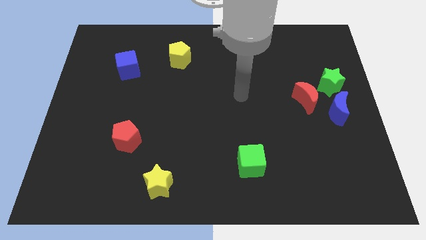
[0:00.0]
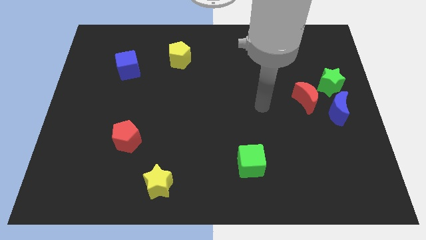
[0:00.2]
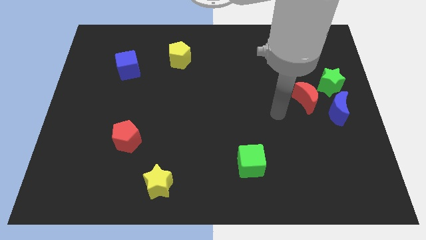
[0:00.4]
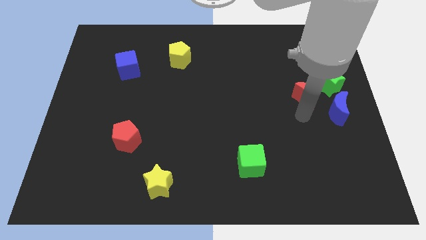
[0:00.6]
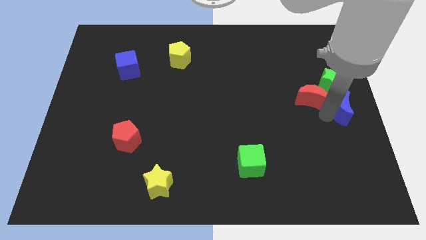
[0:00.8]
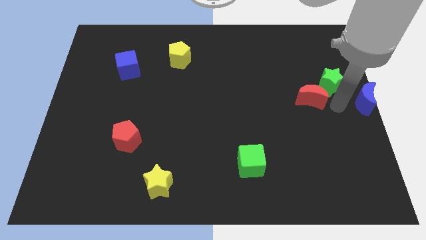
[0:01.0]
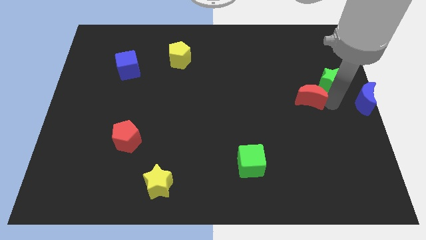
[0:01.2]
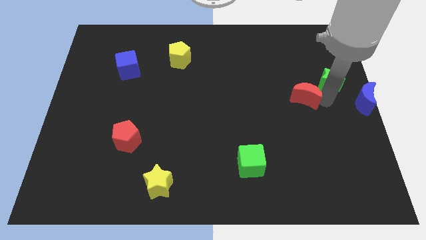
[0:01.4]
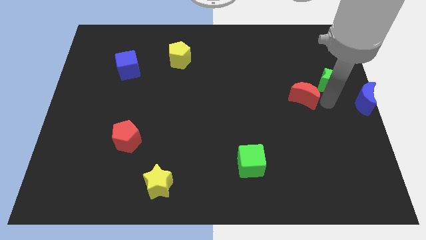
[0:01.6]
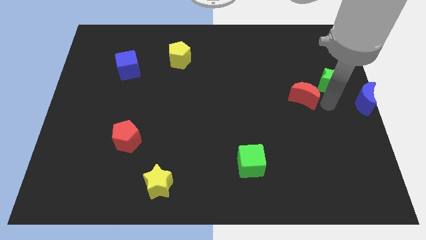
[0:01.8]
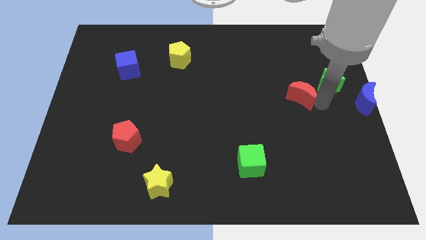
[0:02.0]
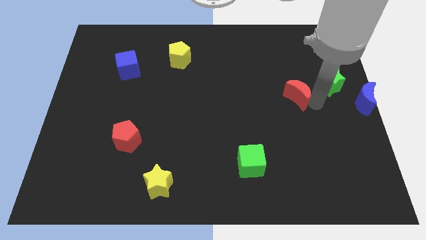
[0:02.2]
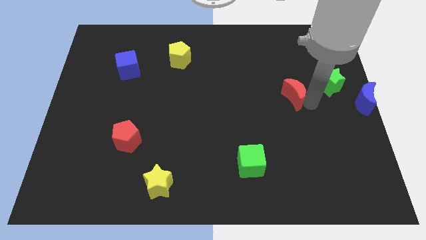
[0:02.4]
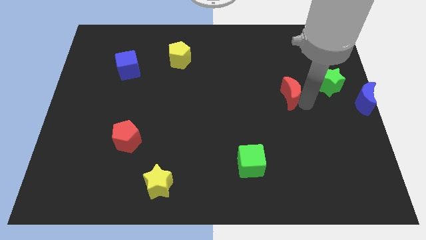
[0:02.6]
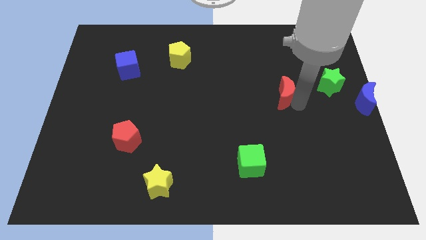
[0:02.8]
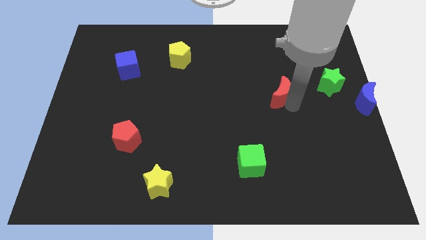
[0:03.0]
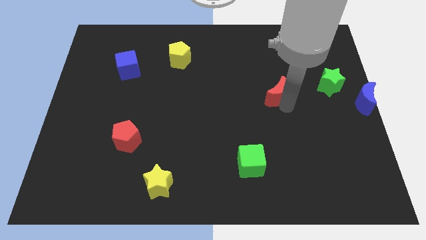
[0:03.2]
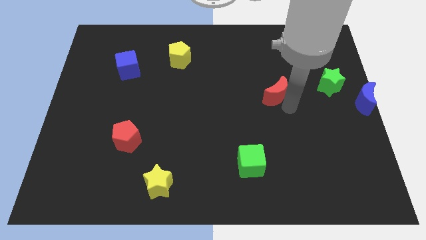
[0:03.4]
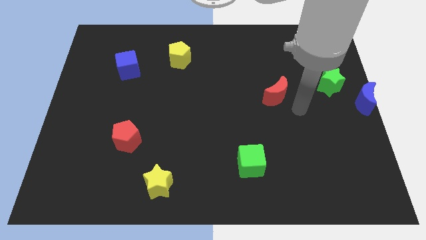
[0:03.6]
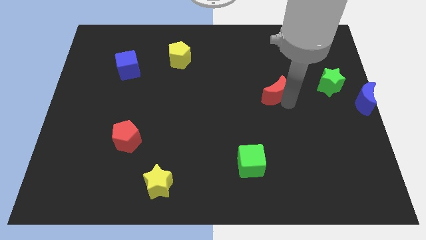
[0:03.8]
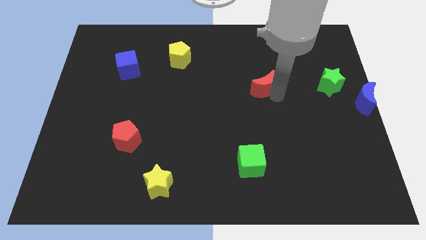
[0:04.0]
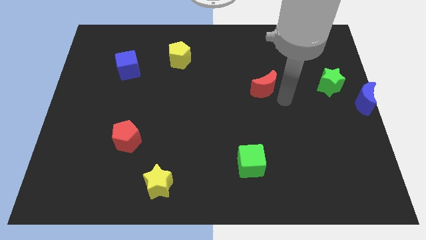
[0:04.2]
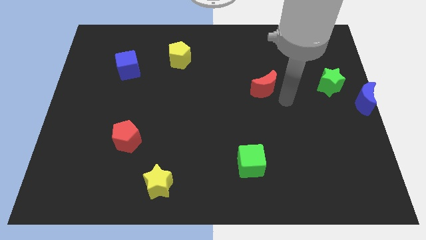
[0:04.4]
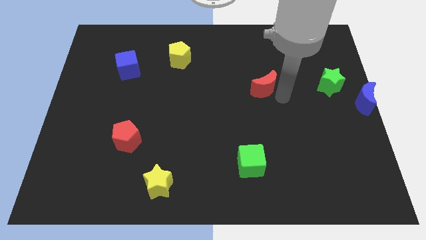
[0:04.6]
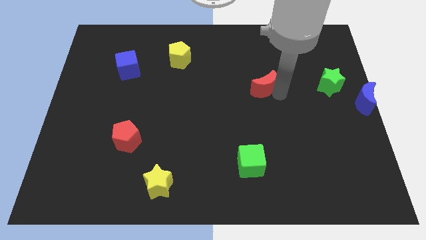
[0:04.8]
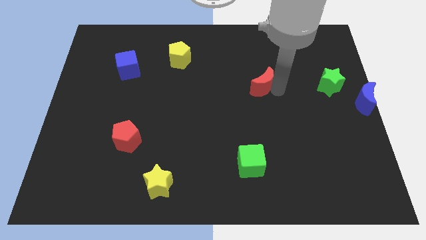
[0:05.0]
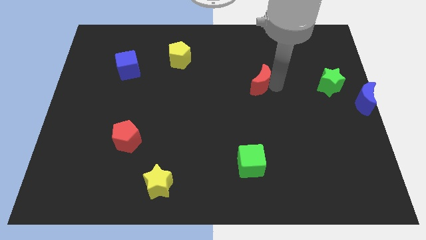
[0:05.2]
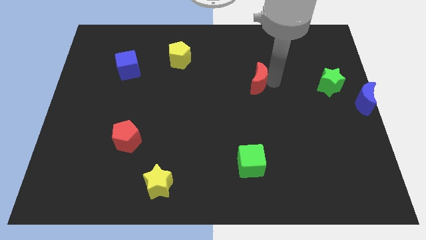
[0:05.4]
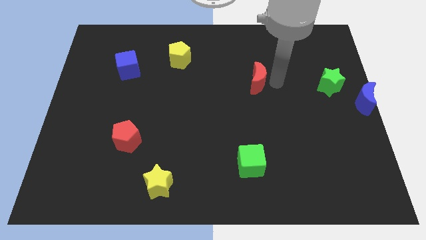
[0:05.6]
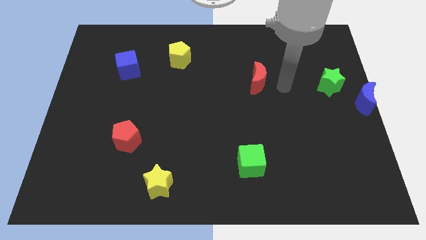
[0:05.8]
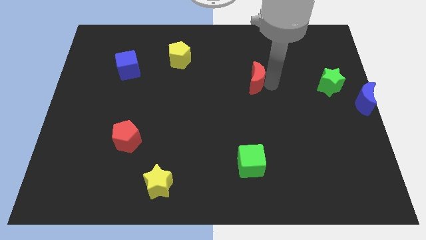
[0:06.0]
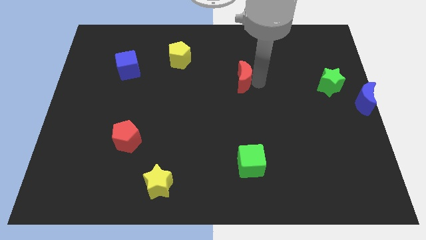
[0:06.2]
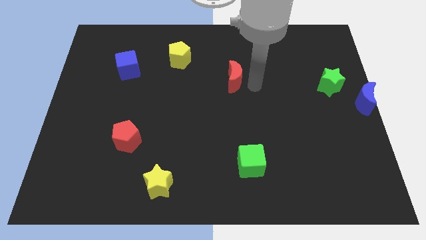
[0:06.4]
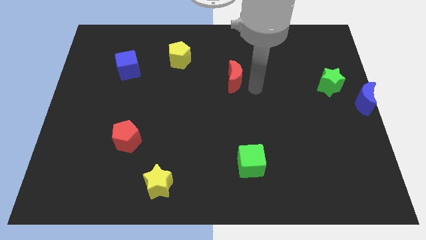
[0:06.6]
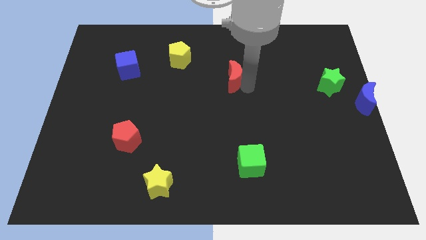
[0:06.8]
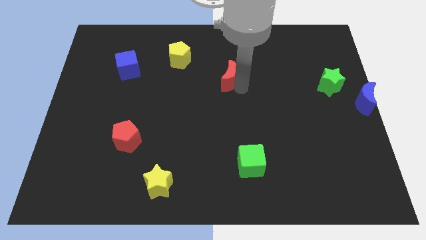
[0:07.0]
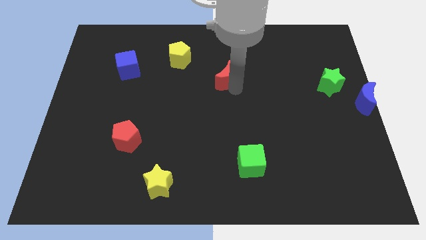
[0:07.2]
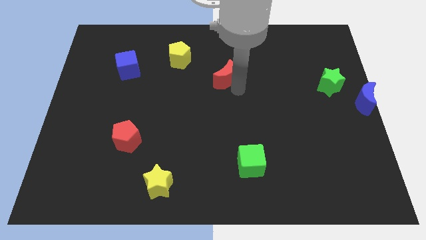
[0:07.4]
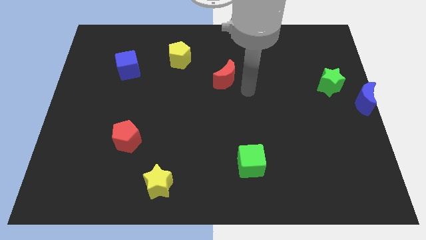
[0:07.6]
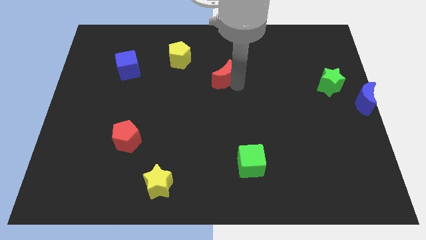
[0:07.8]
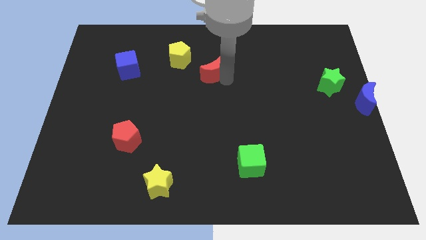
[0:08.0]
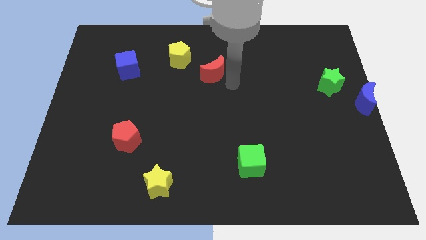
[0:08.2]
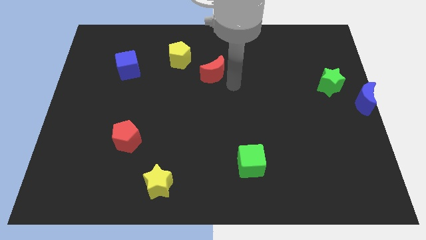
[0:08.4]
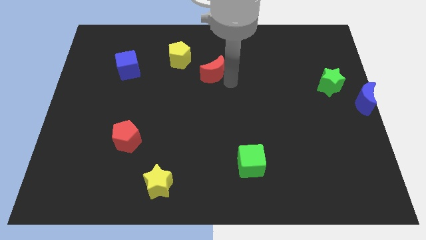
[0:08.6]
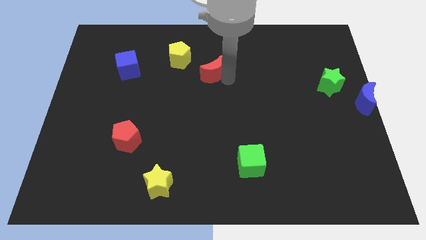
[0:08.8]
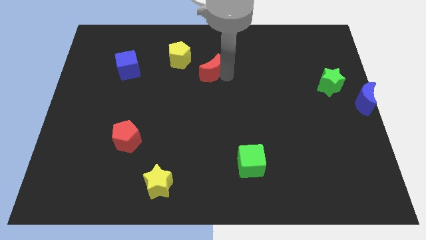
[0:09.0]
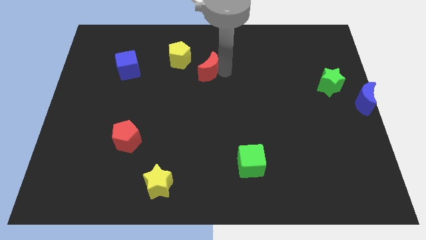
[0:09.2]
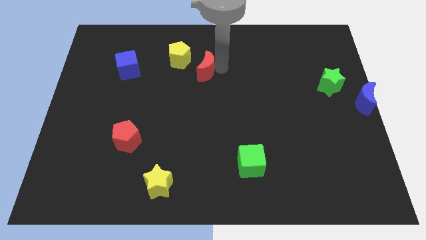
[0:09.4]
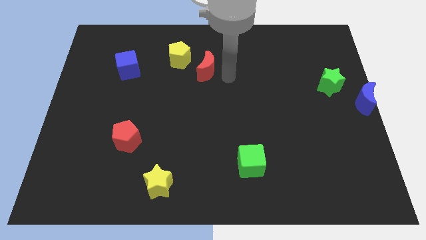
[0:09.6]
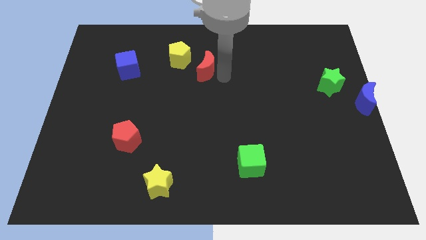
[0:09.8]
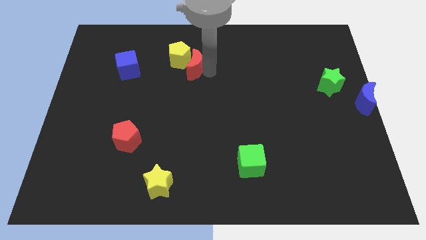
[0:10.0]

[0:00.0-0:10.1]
push the red moon to the yellow pentagon

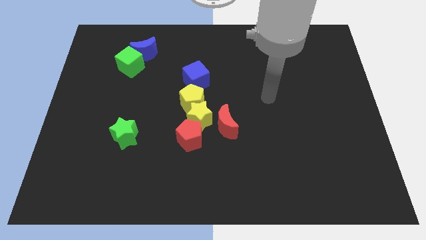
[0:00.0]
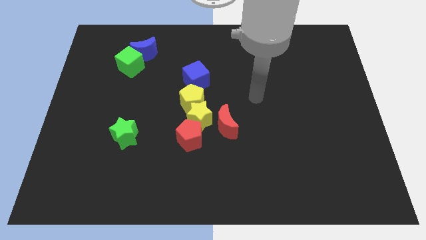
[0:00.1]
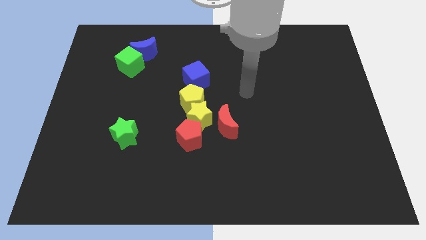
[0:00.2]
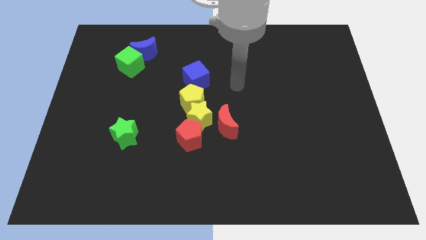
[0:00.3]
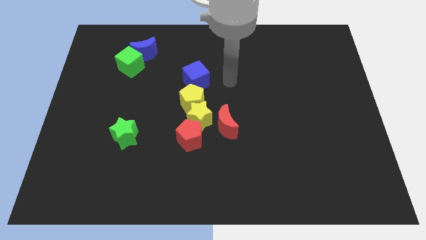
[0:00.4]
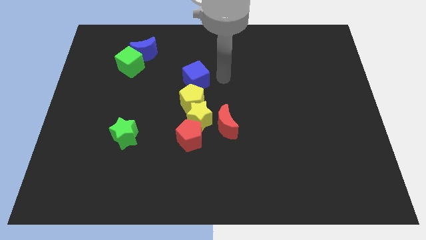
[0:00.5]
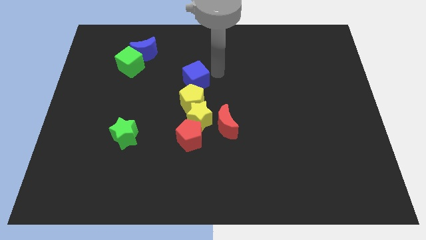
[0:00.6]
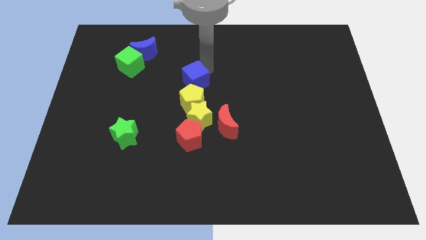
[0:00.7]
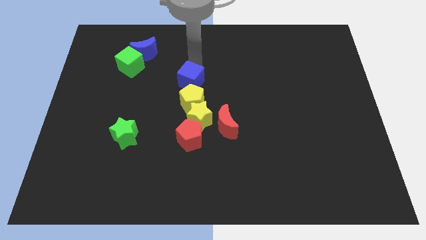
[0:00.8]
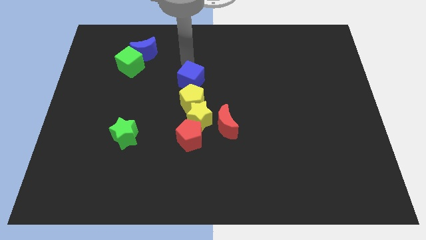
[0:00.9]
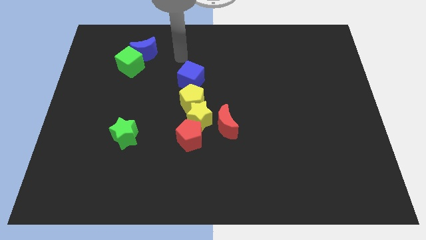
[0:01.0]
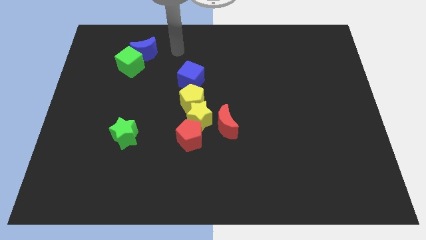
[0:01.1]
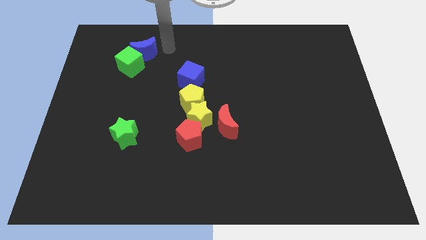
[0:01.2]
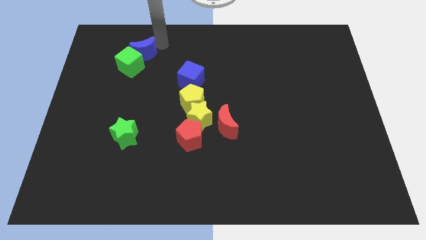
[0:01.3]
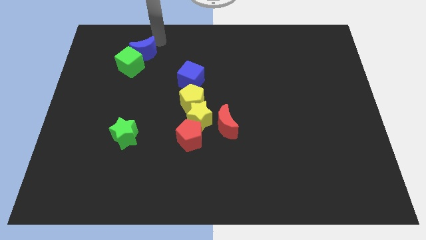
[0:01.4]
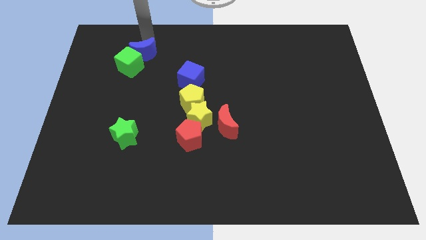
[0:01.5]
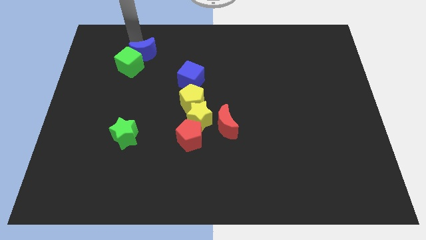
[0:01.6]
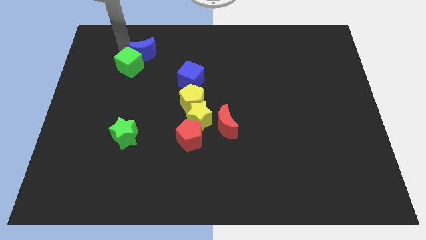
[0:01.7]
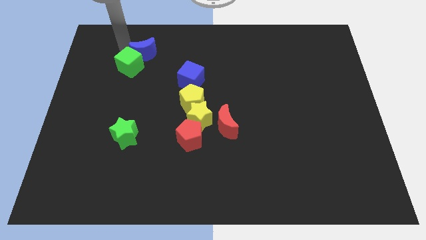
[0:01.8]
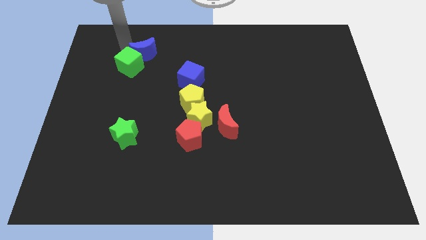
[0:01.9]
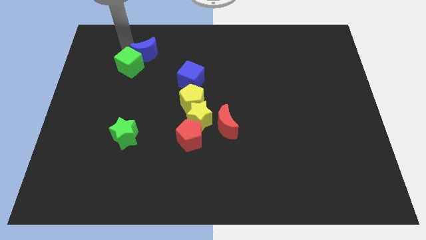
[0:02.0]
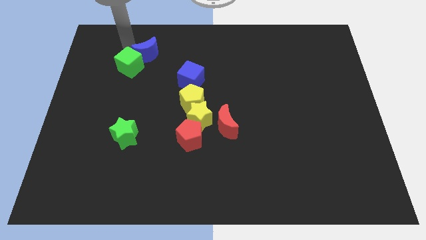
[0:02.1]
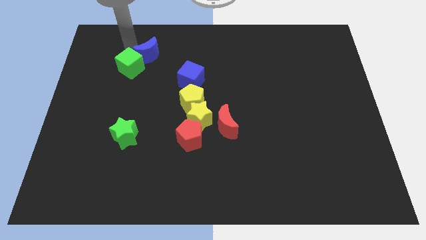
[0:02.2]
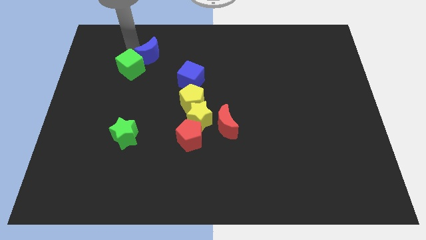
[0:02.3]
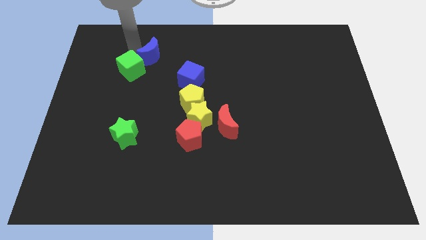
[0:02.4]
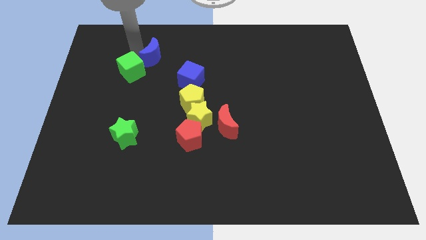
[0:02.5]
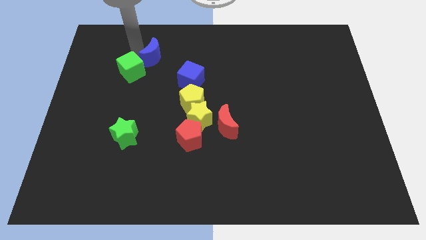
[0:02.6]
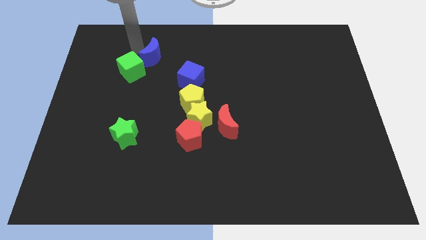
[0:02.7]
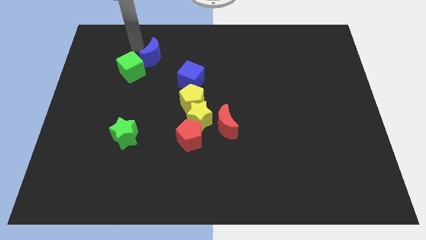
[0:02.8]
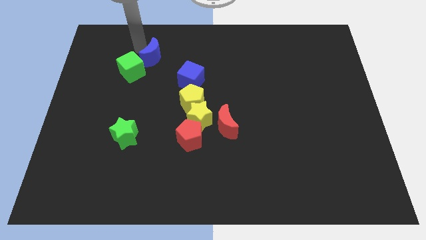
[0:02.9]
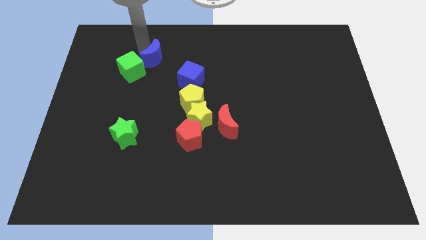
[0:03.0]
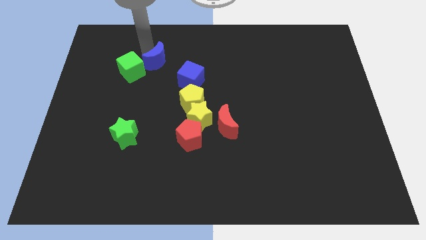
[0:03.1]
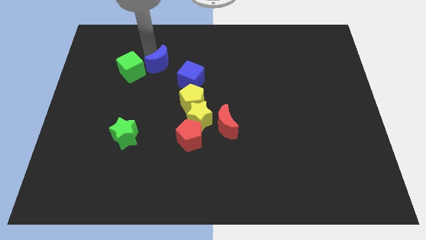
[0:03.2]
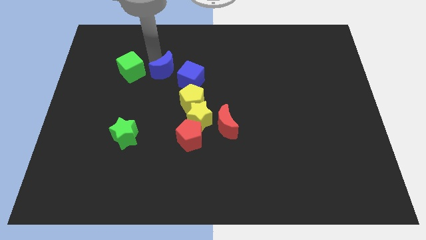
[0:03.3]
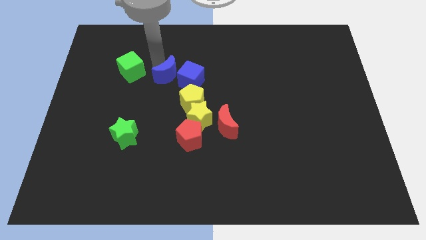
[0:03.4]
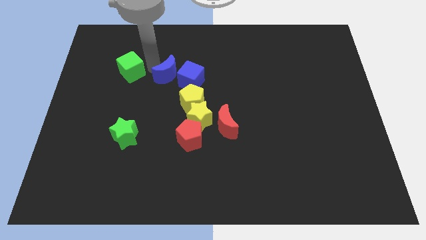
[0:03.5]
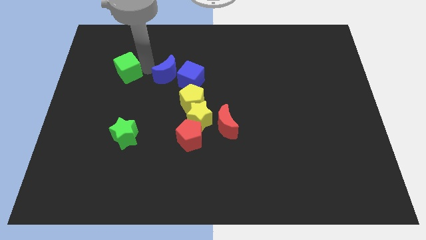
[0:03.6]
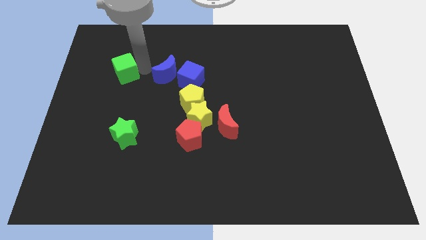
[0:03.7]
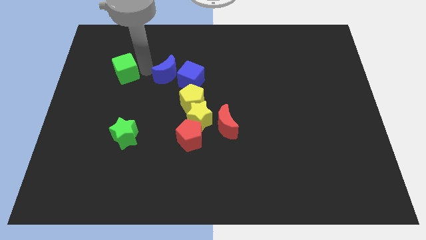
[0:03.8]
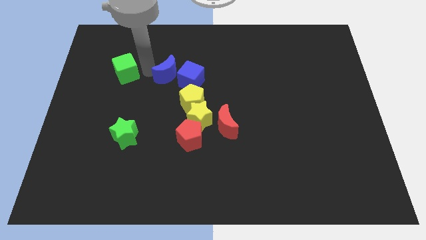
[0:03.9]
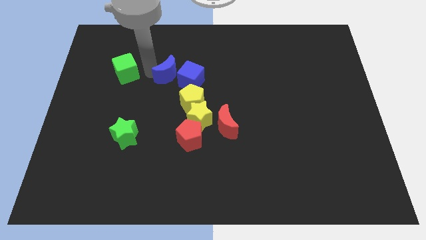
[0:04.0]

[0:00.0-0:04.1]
push the blue moon close to the blue cube
